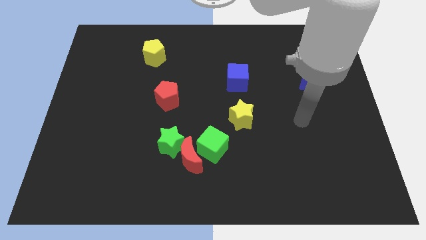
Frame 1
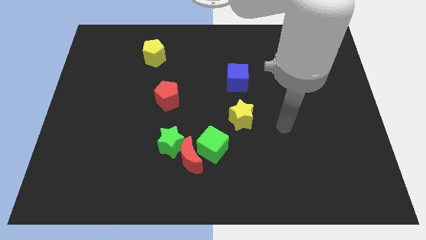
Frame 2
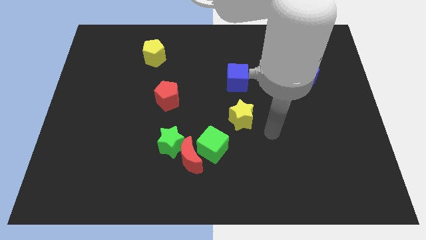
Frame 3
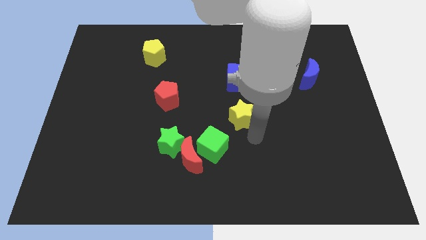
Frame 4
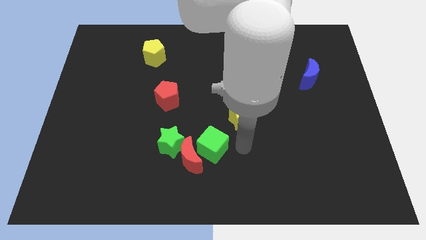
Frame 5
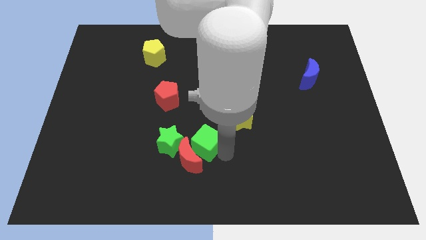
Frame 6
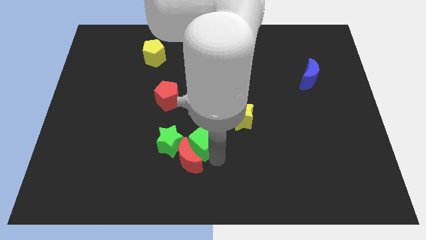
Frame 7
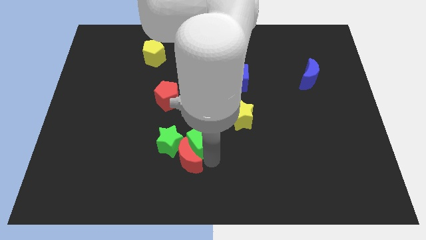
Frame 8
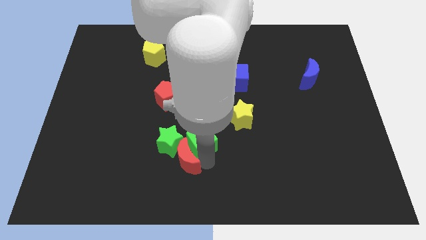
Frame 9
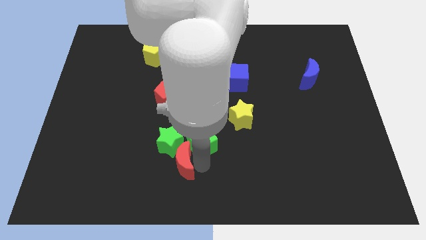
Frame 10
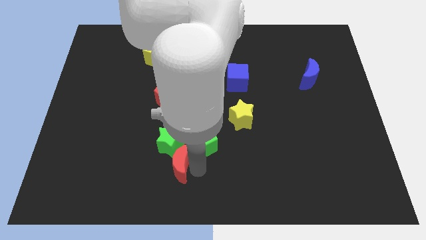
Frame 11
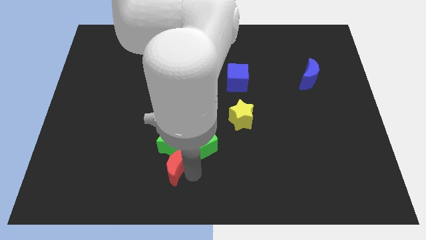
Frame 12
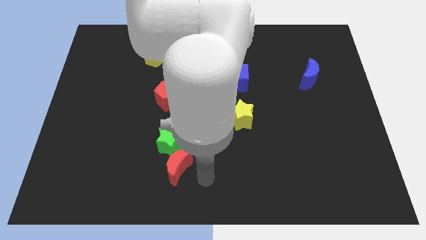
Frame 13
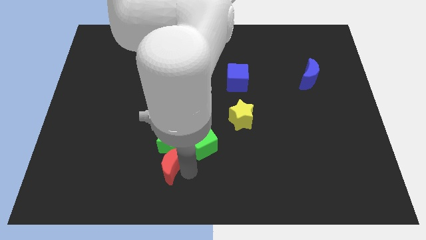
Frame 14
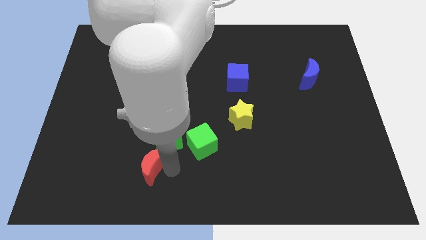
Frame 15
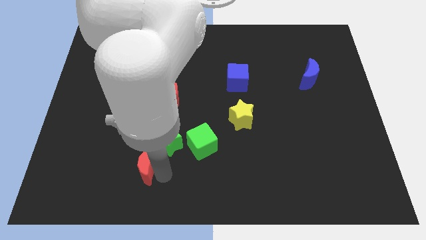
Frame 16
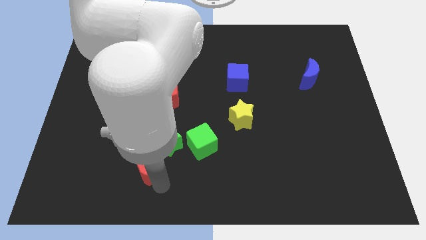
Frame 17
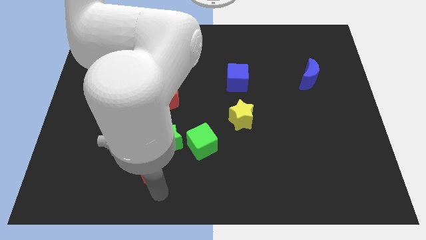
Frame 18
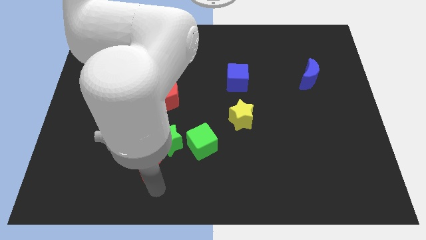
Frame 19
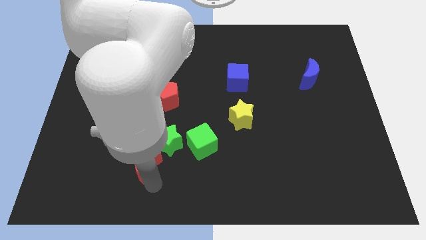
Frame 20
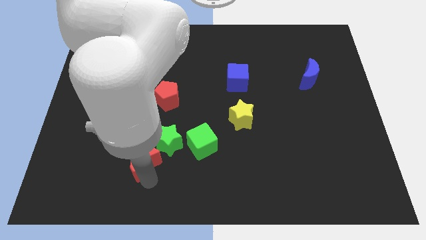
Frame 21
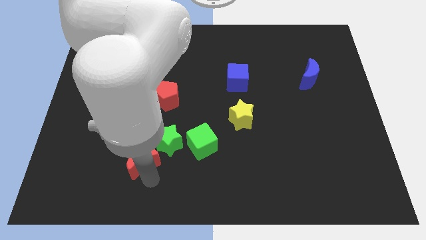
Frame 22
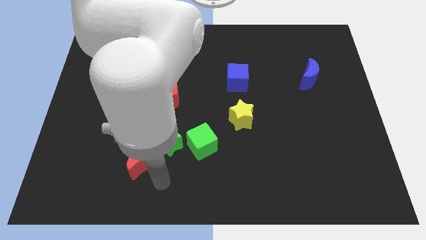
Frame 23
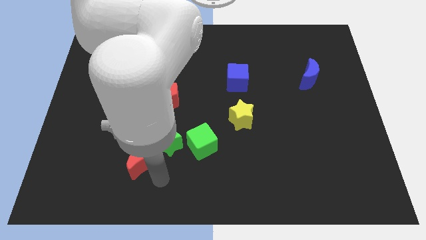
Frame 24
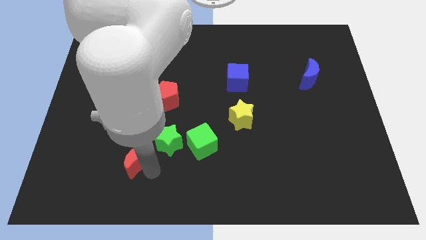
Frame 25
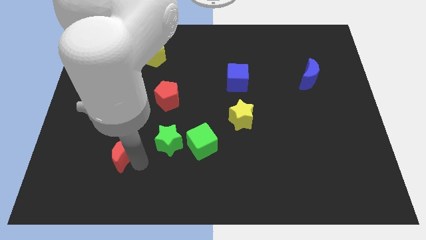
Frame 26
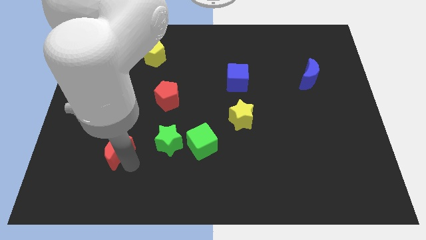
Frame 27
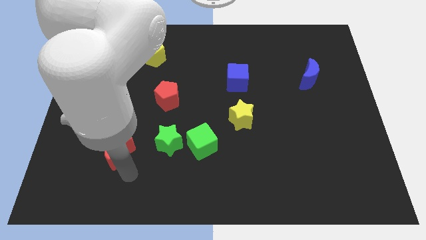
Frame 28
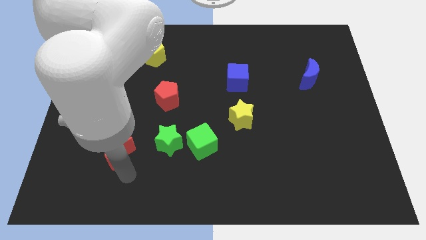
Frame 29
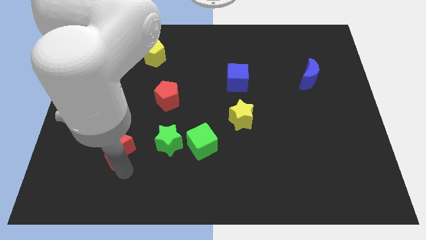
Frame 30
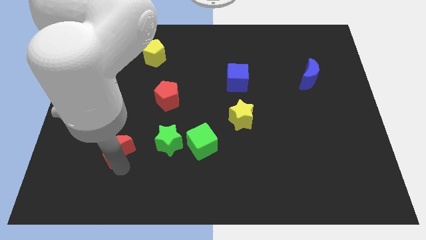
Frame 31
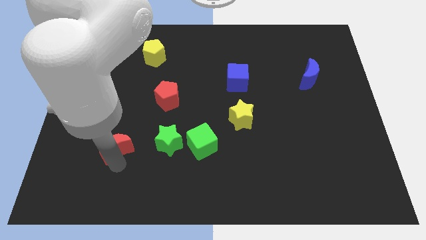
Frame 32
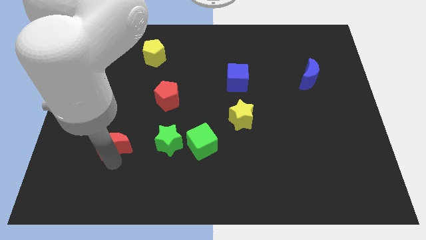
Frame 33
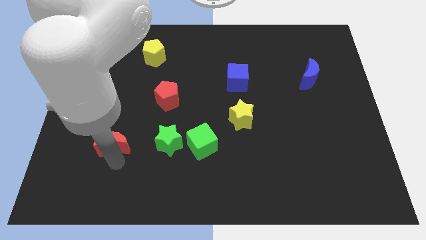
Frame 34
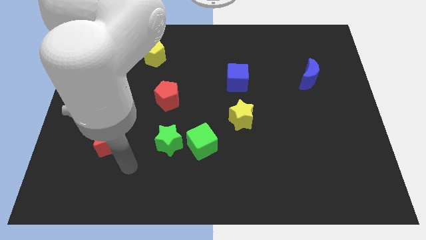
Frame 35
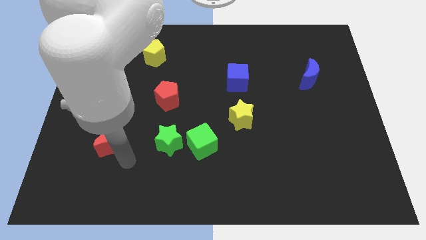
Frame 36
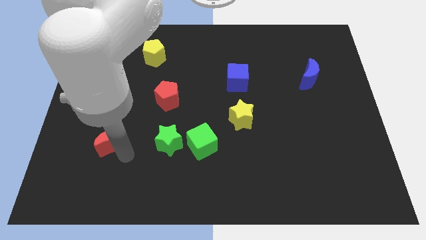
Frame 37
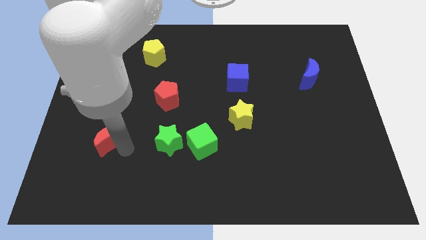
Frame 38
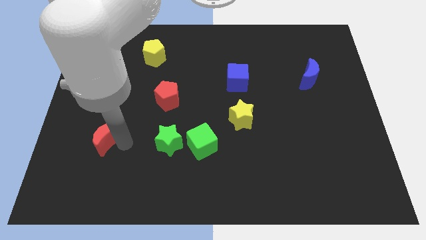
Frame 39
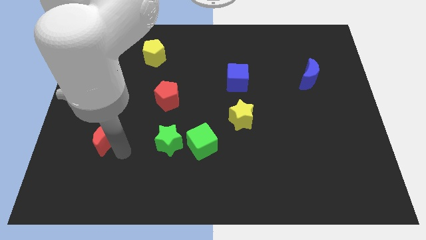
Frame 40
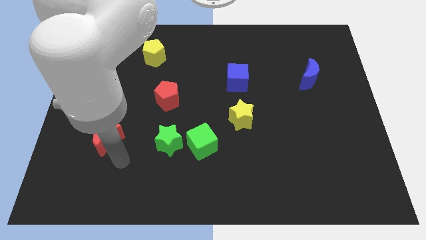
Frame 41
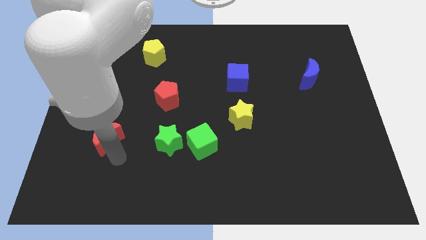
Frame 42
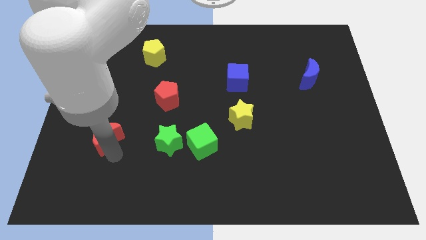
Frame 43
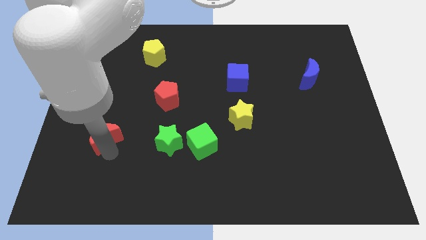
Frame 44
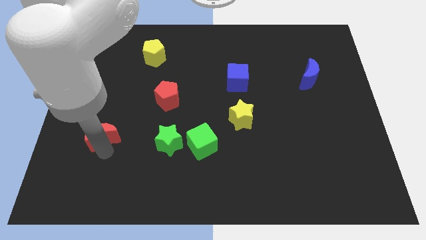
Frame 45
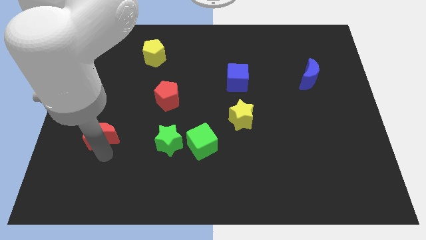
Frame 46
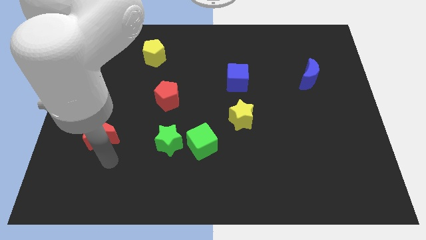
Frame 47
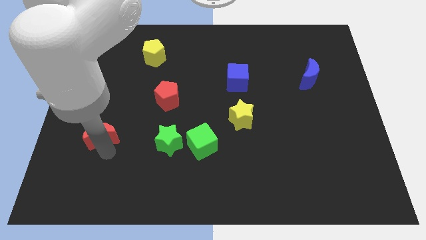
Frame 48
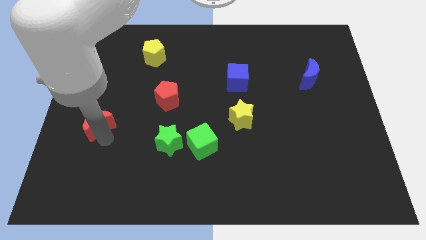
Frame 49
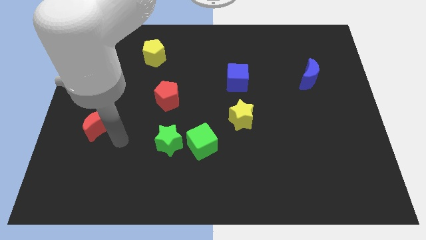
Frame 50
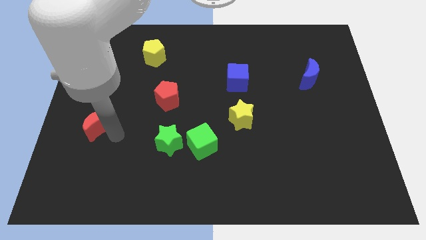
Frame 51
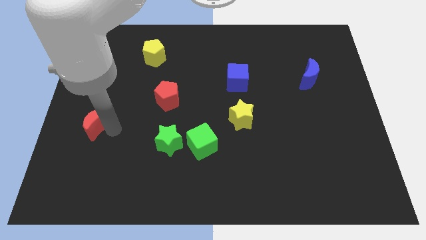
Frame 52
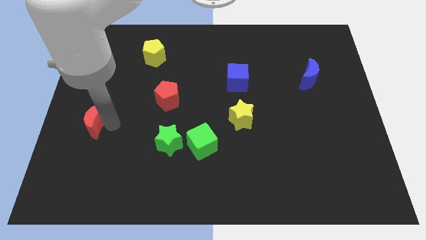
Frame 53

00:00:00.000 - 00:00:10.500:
slide the red moon to the left side
